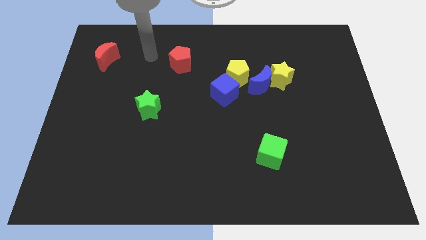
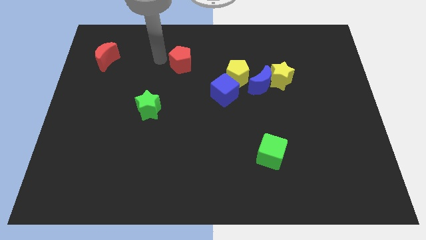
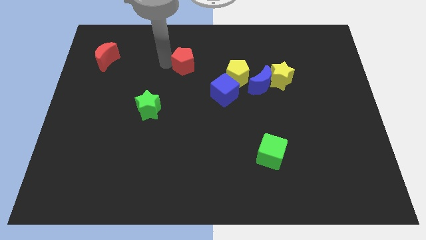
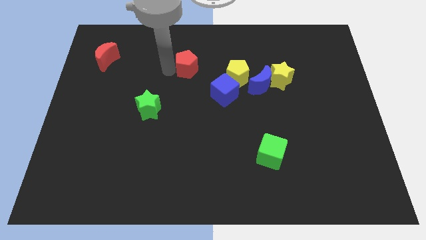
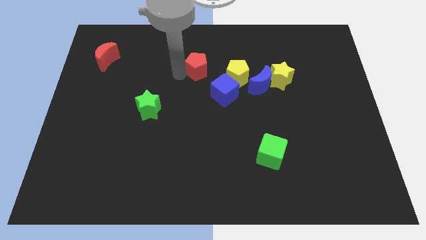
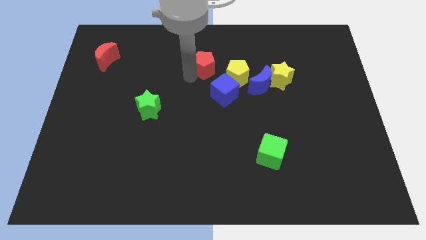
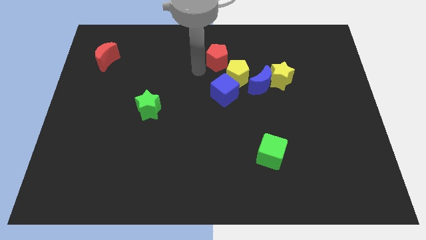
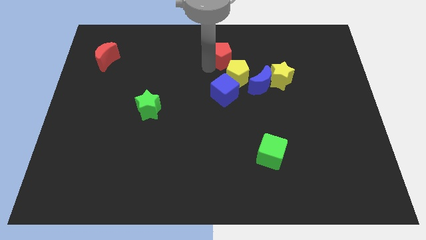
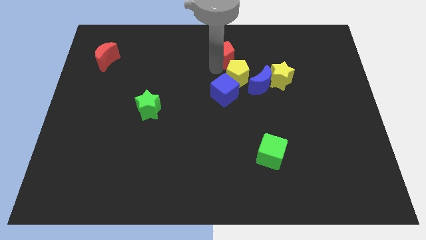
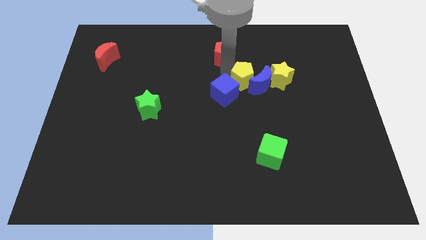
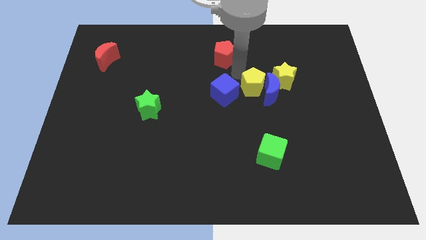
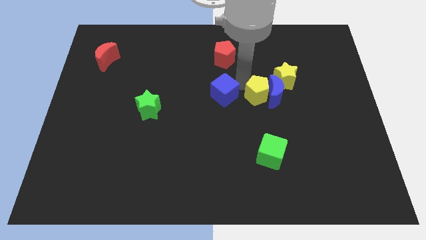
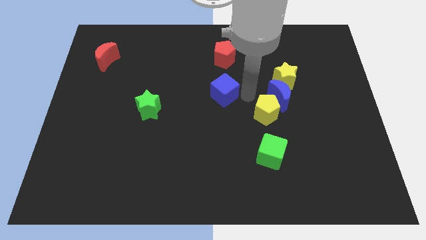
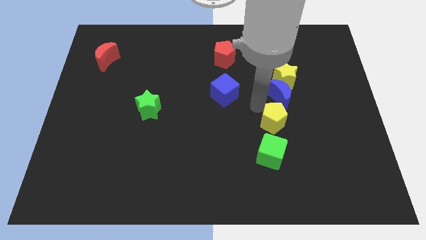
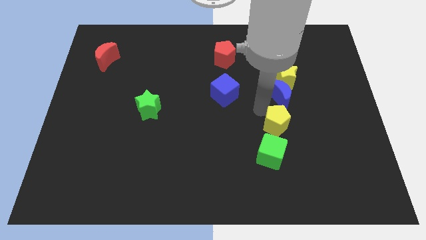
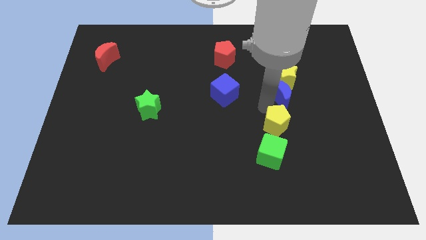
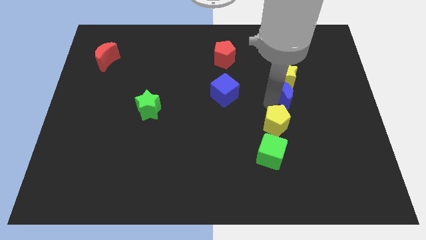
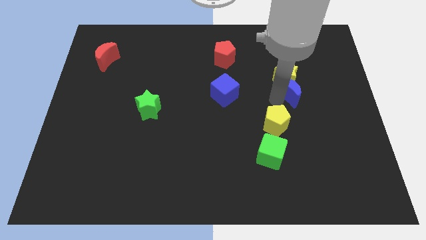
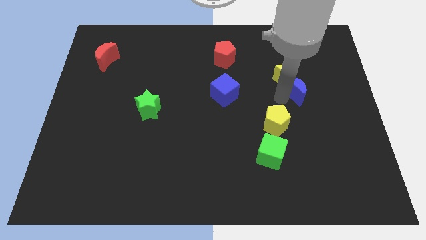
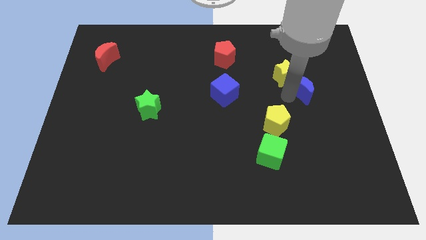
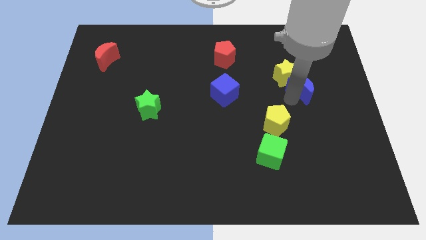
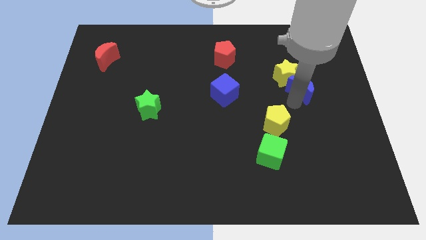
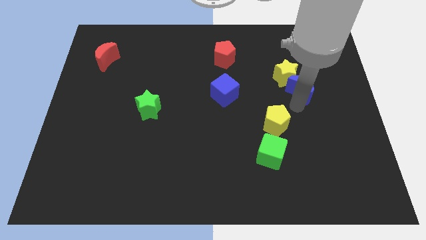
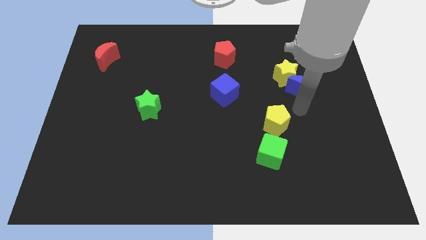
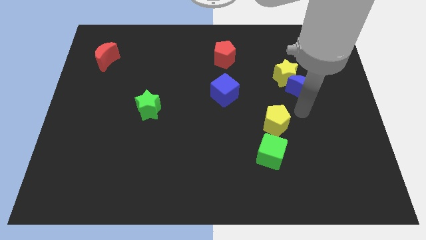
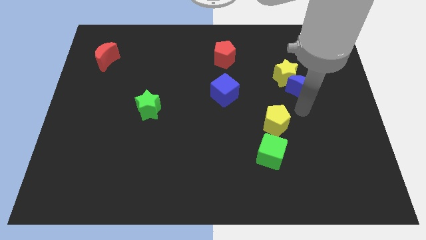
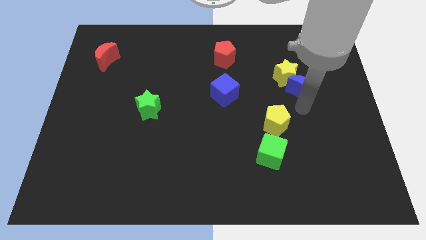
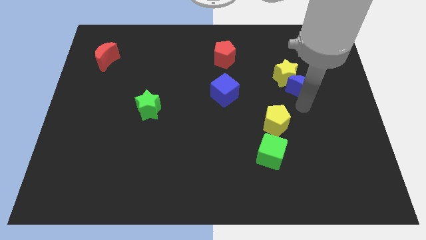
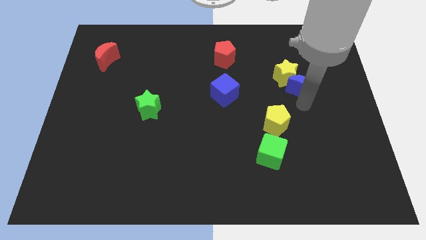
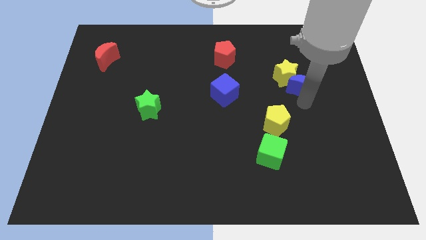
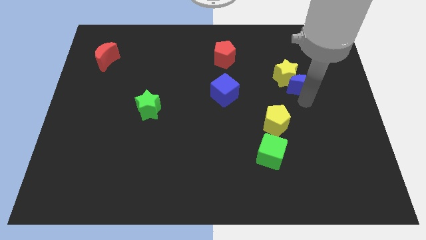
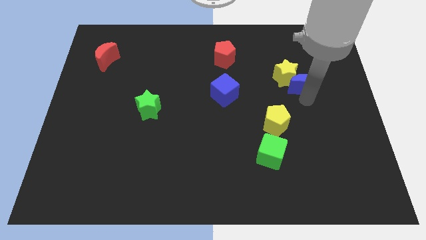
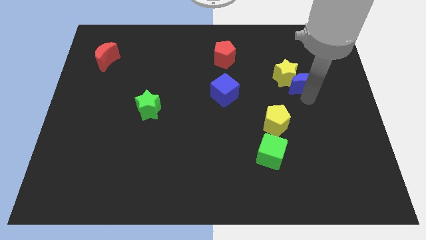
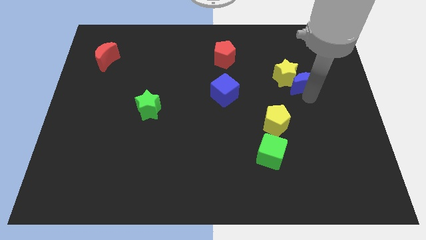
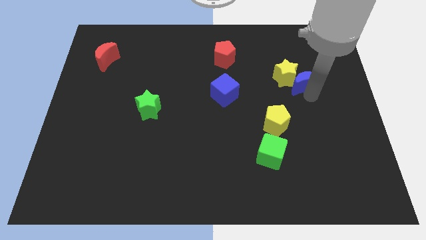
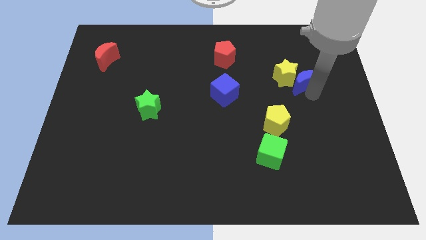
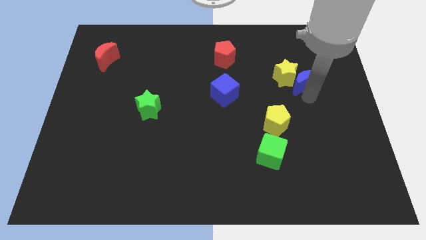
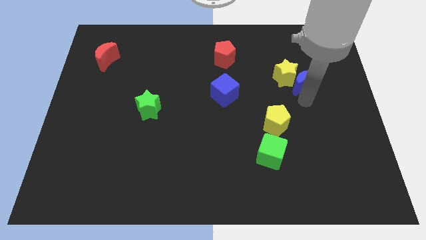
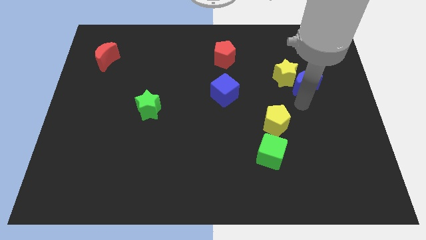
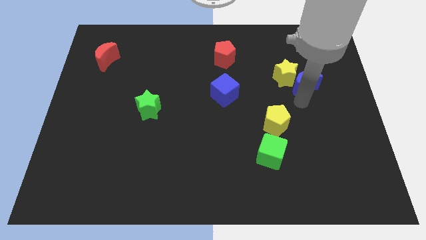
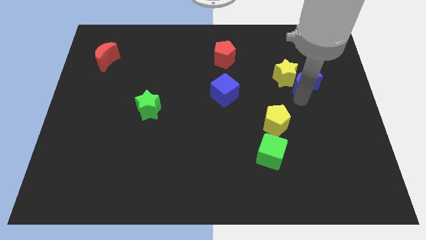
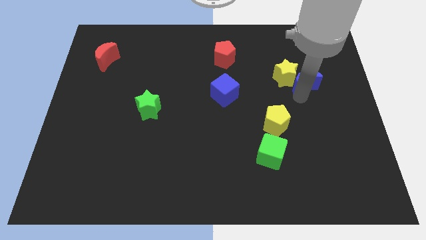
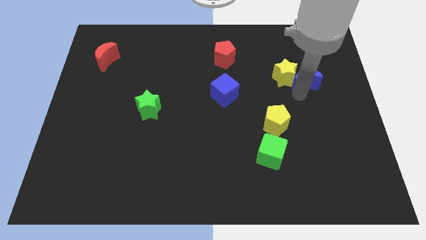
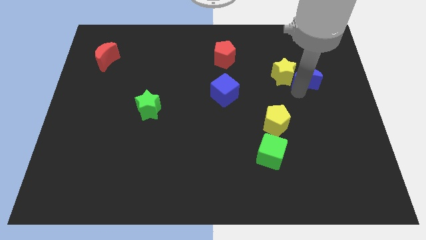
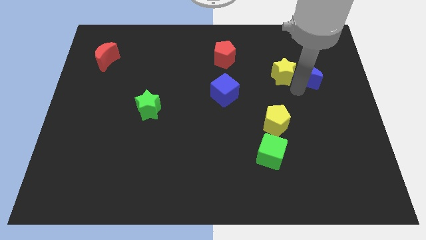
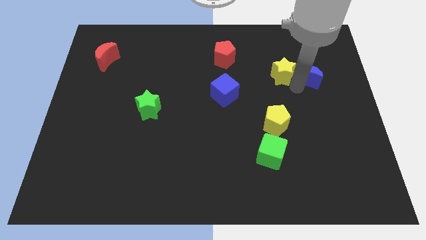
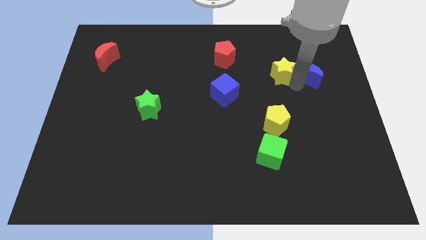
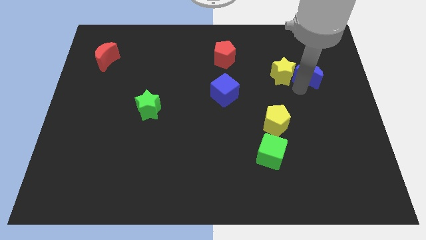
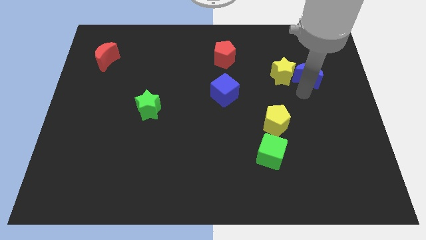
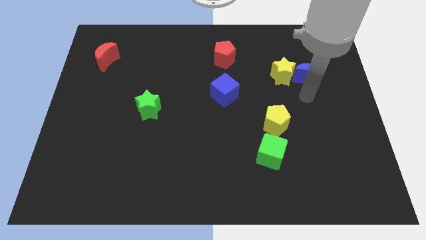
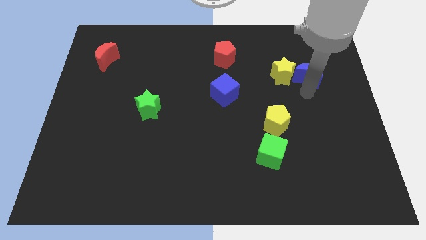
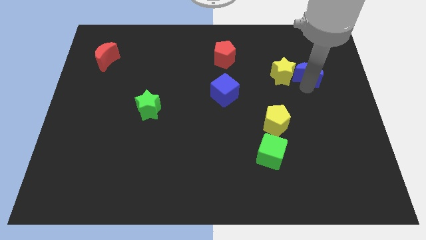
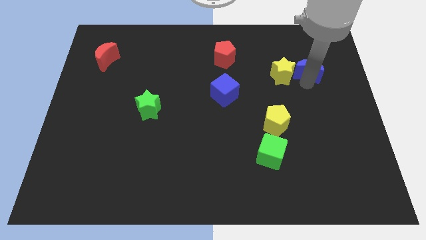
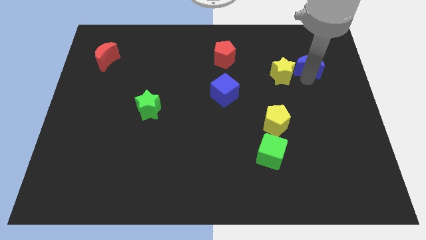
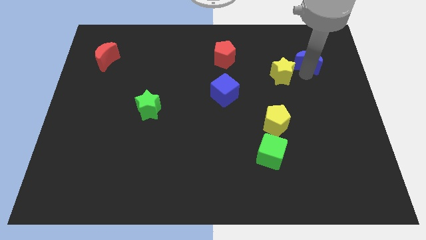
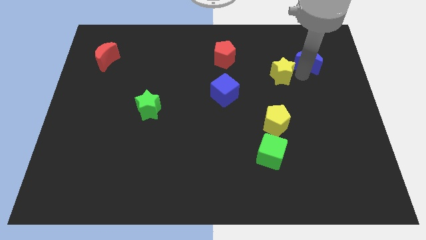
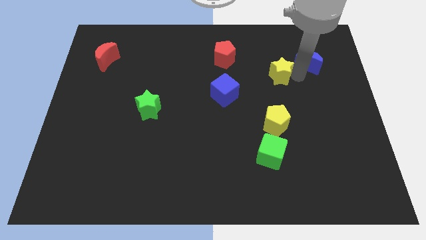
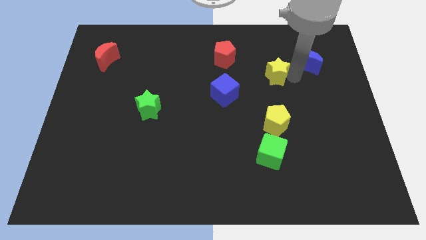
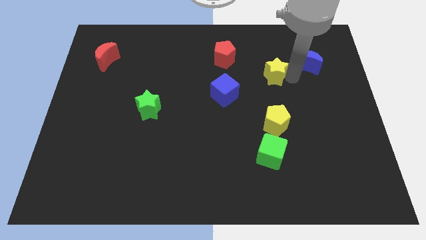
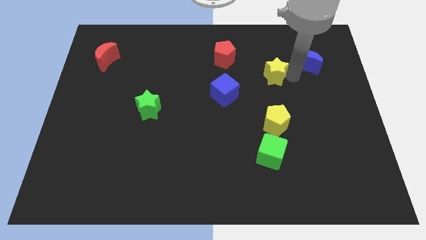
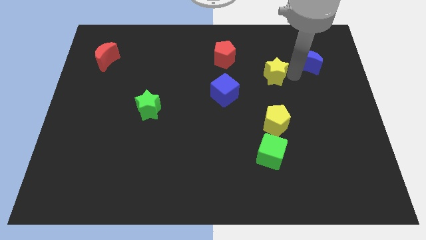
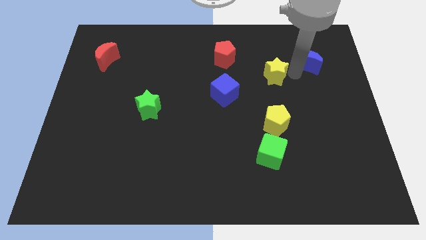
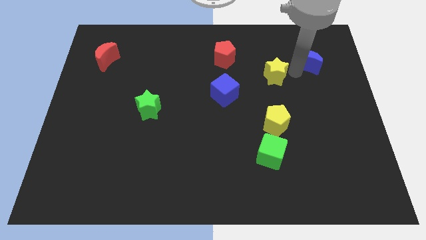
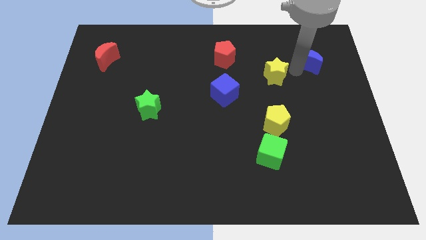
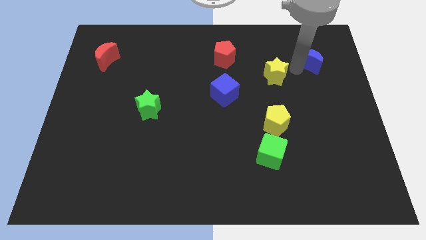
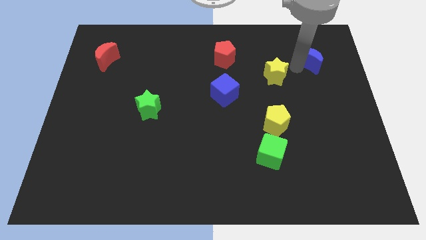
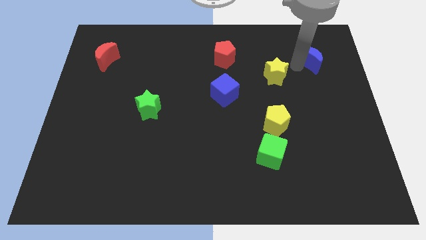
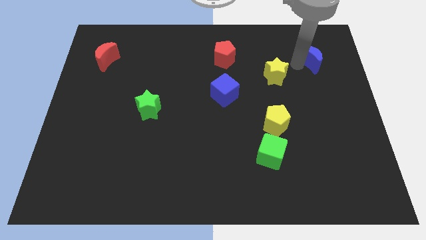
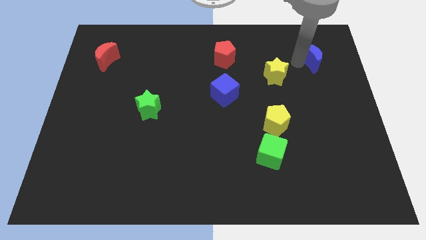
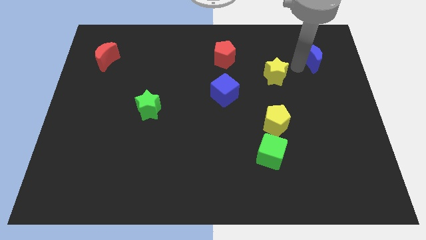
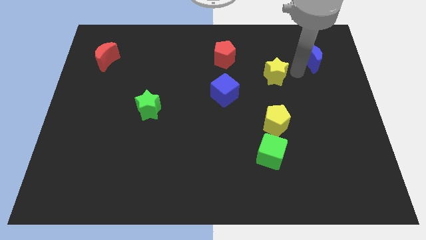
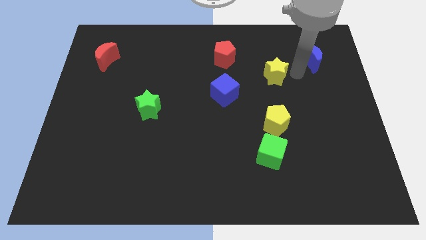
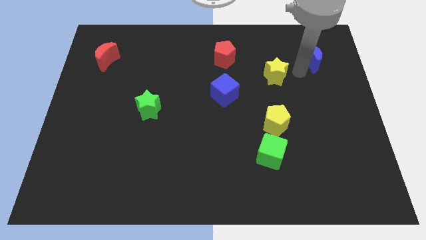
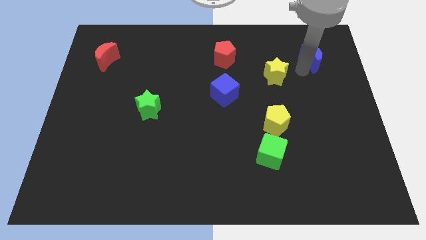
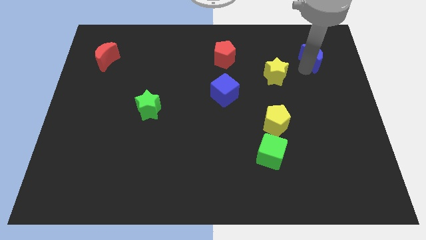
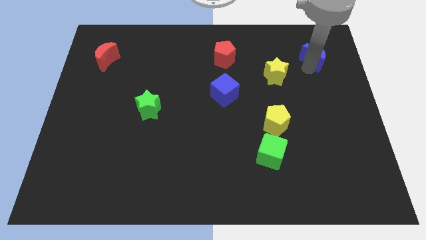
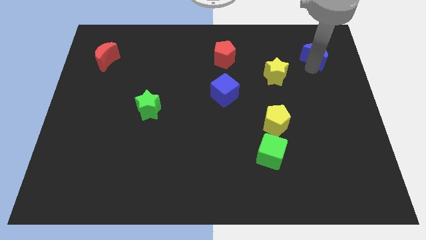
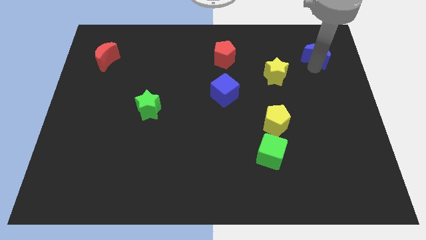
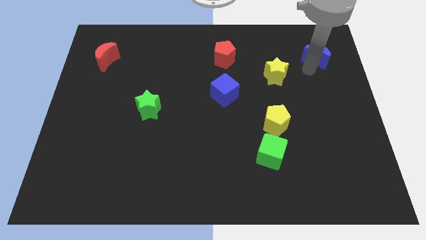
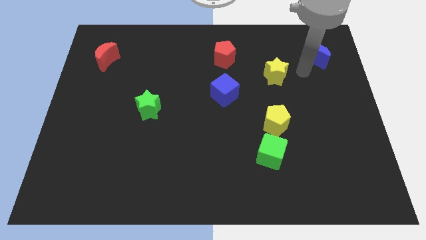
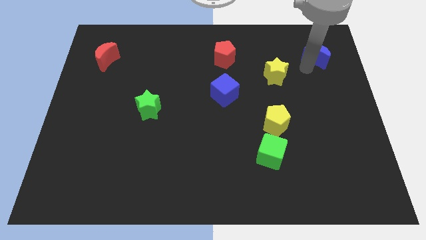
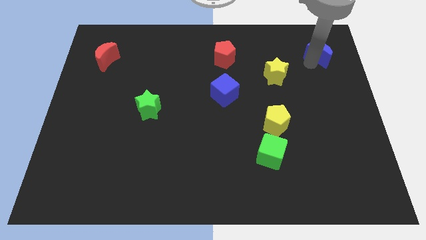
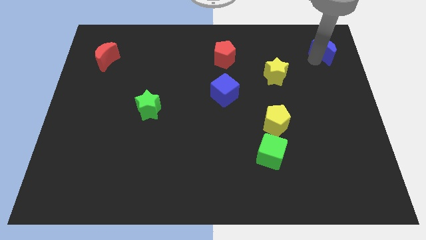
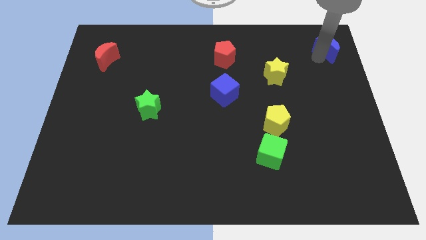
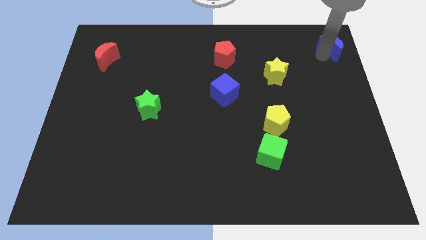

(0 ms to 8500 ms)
put the blue moon to the top right of the board
